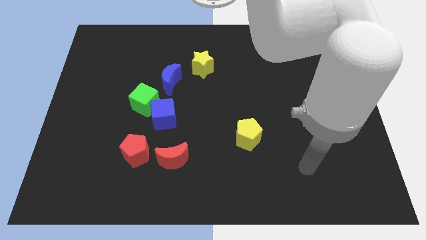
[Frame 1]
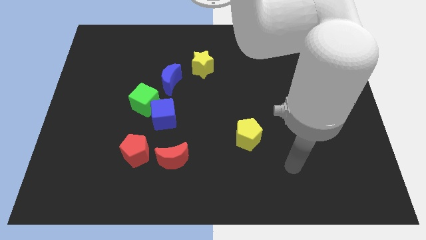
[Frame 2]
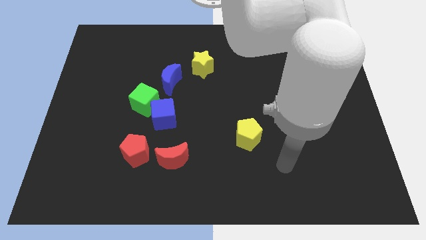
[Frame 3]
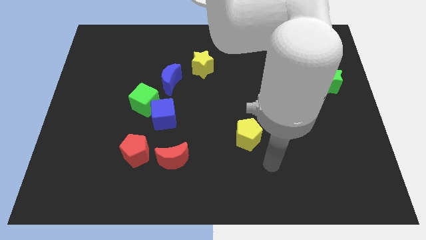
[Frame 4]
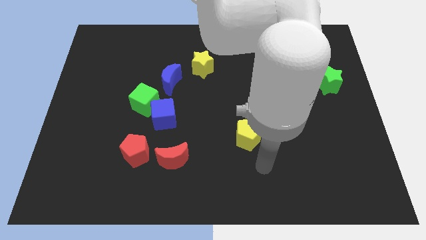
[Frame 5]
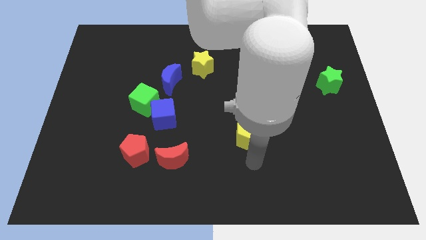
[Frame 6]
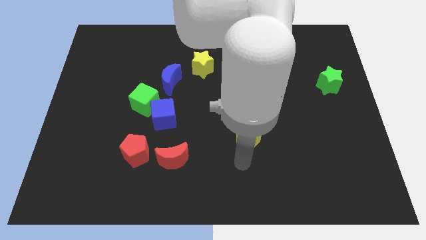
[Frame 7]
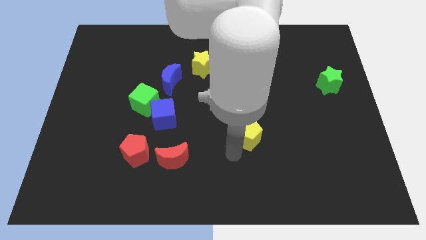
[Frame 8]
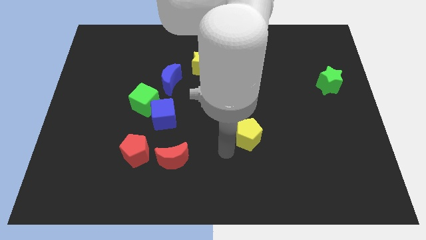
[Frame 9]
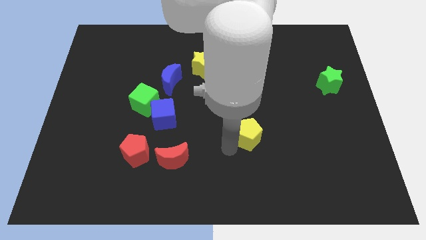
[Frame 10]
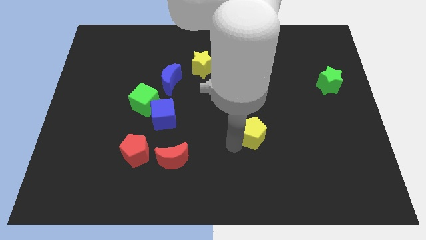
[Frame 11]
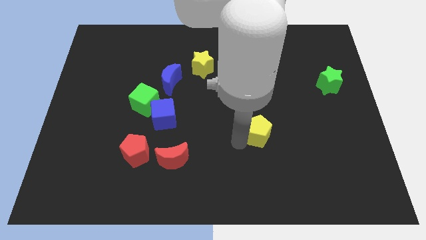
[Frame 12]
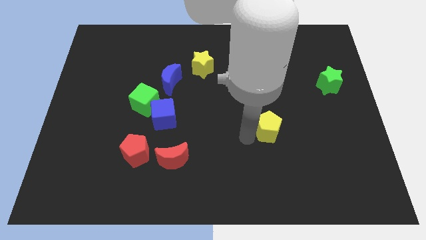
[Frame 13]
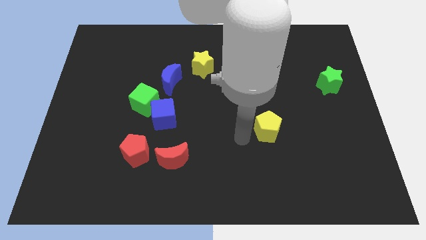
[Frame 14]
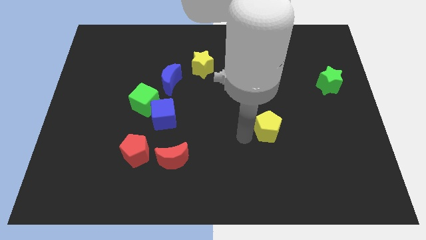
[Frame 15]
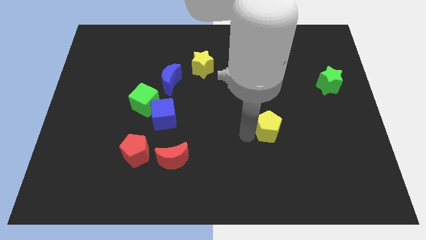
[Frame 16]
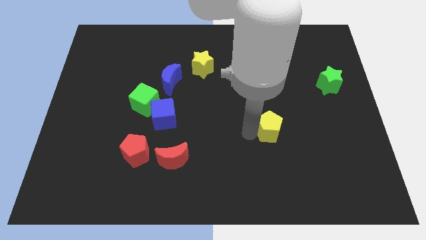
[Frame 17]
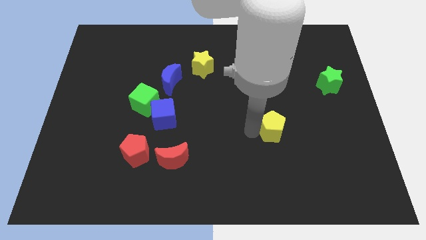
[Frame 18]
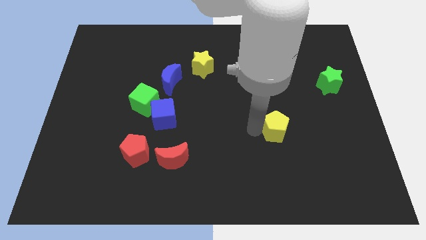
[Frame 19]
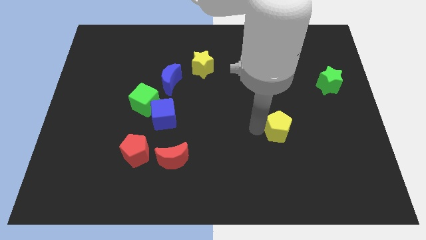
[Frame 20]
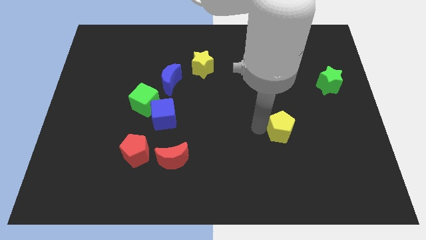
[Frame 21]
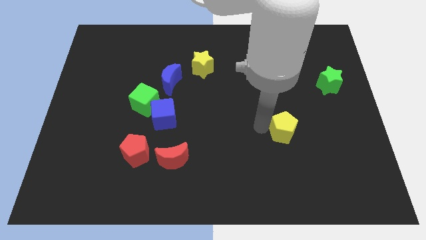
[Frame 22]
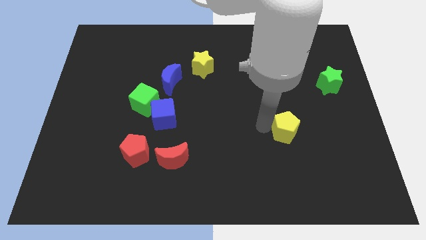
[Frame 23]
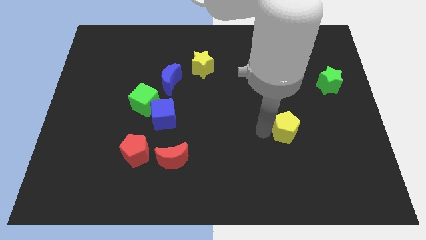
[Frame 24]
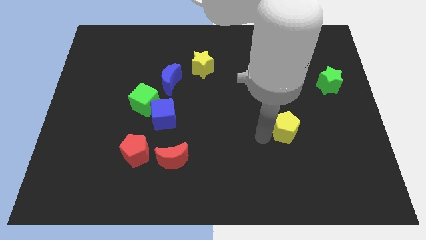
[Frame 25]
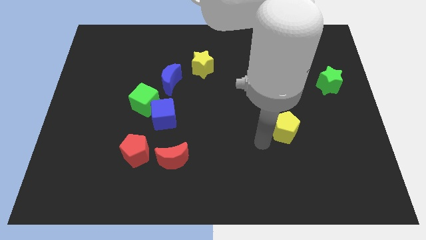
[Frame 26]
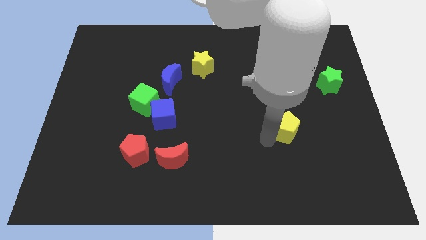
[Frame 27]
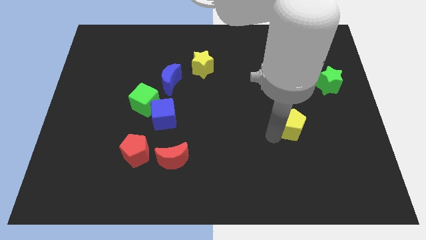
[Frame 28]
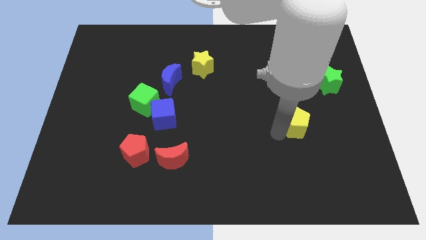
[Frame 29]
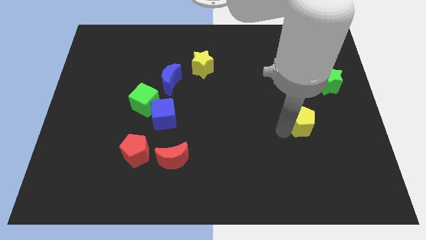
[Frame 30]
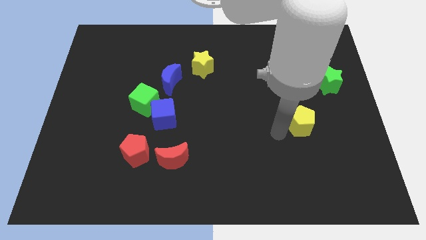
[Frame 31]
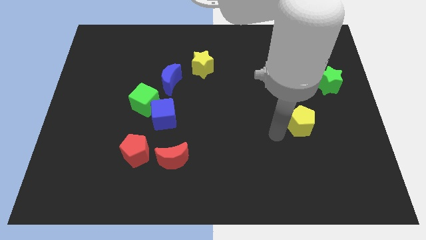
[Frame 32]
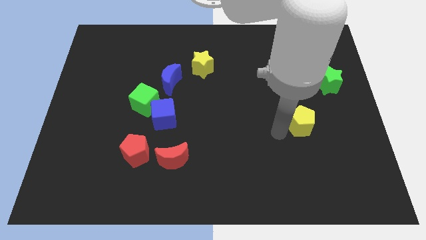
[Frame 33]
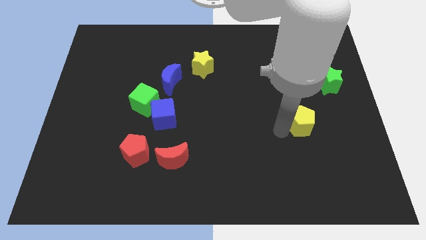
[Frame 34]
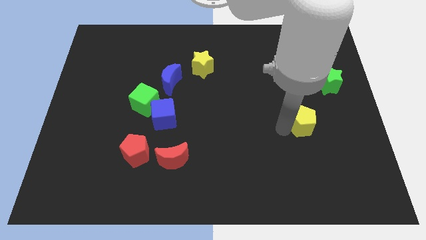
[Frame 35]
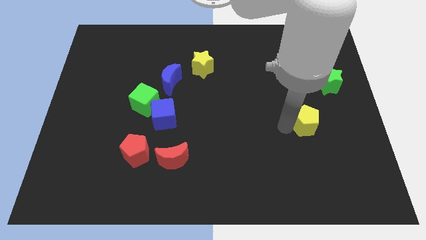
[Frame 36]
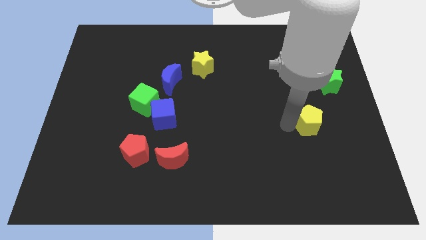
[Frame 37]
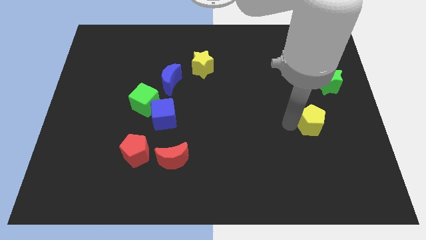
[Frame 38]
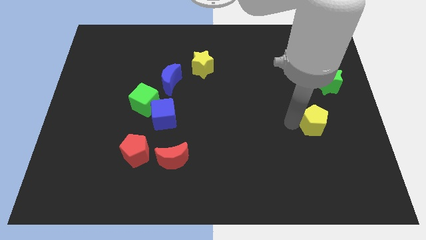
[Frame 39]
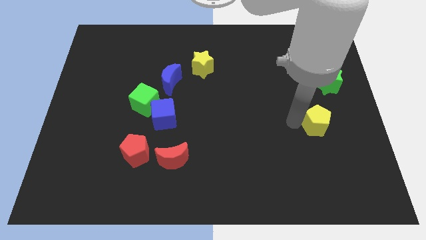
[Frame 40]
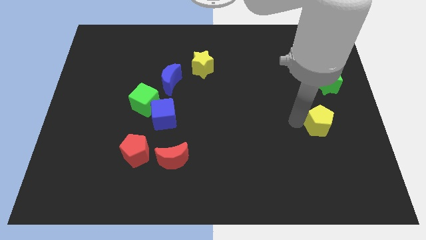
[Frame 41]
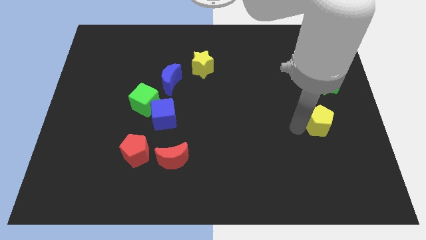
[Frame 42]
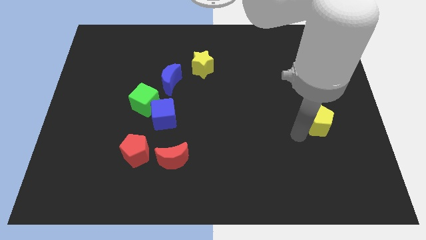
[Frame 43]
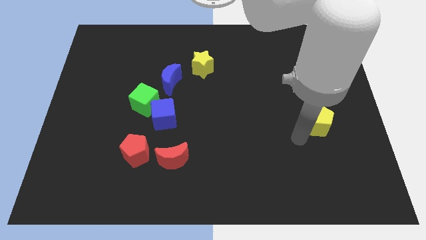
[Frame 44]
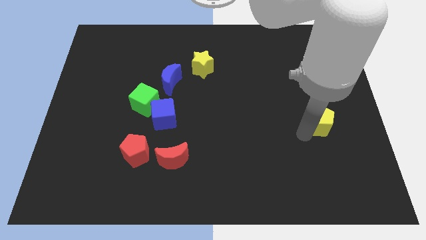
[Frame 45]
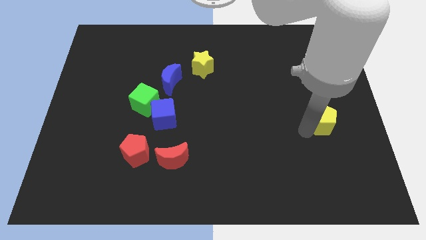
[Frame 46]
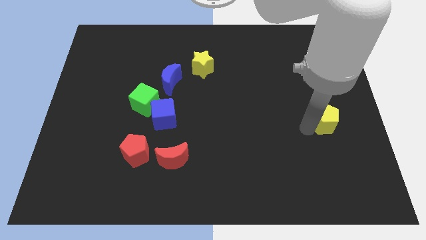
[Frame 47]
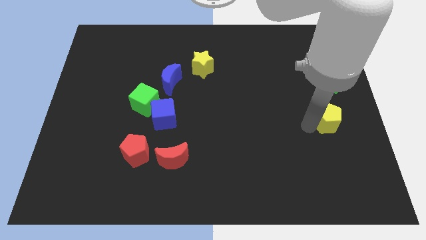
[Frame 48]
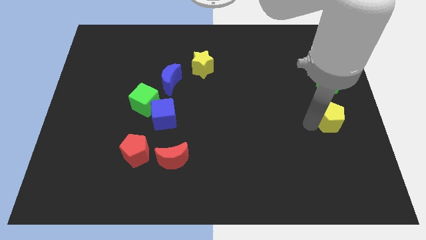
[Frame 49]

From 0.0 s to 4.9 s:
move the yellow pentagon to the center right

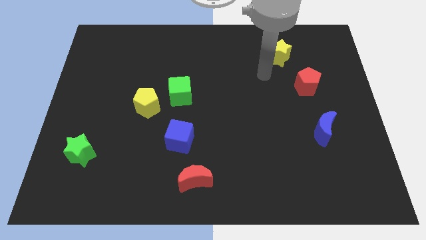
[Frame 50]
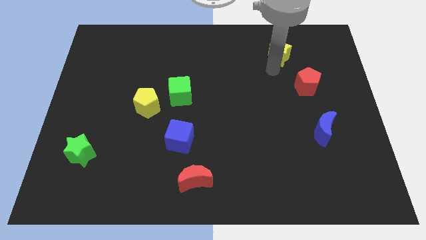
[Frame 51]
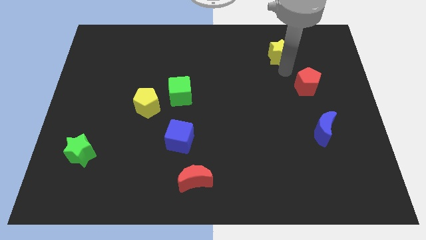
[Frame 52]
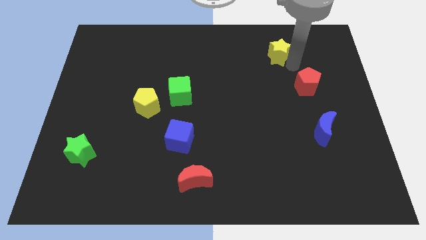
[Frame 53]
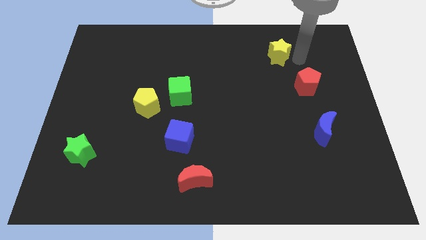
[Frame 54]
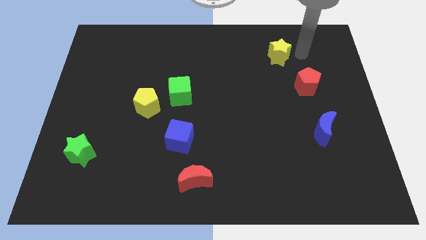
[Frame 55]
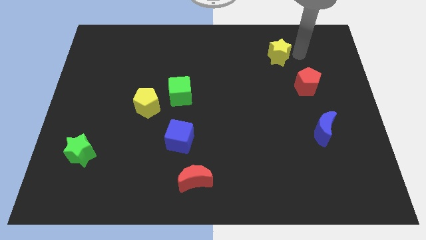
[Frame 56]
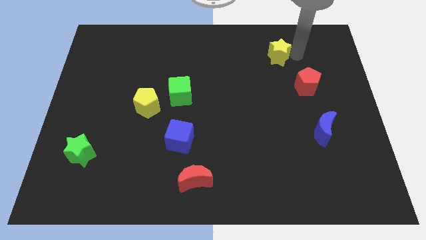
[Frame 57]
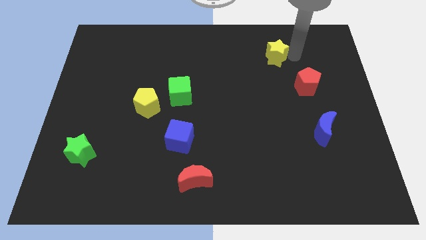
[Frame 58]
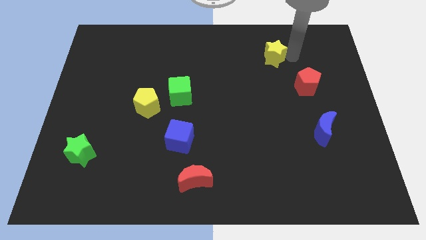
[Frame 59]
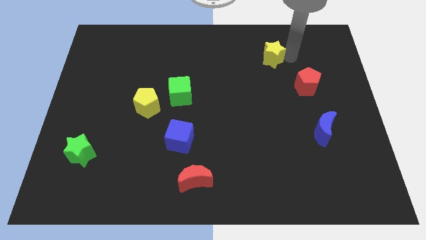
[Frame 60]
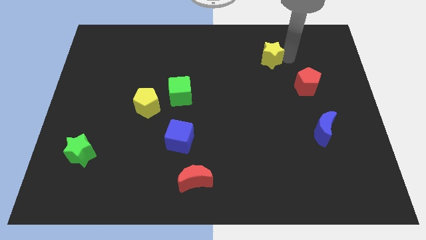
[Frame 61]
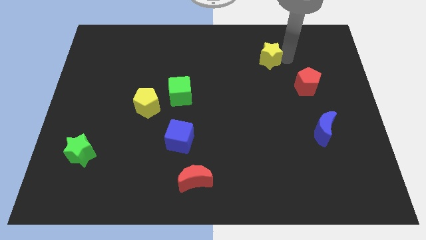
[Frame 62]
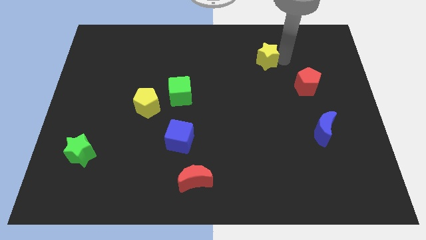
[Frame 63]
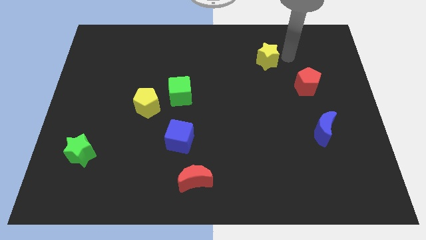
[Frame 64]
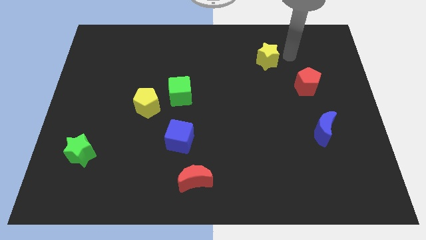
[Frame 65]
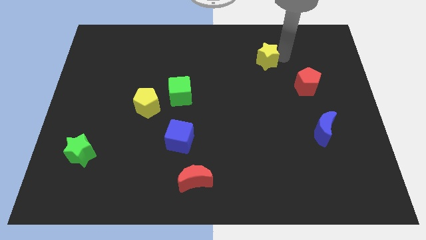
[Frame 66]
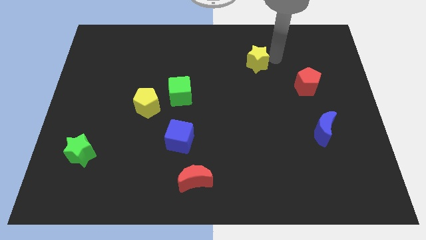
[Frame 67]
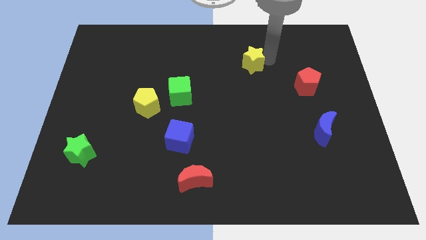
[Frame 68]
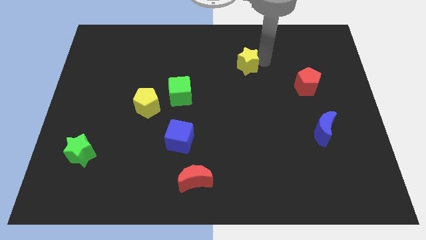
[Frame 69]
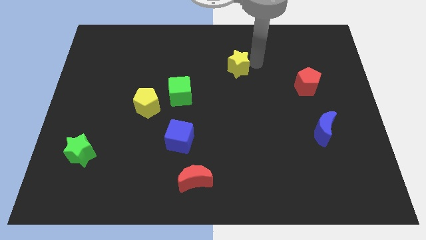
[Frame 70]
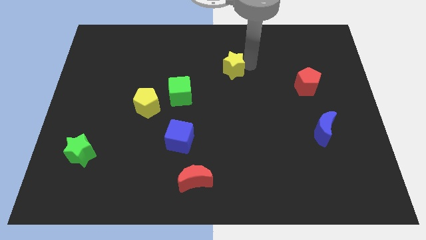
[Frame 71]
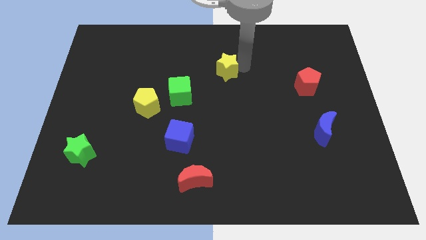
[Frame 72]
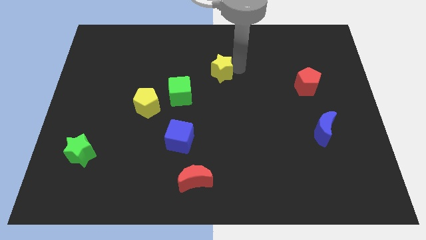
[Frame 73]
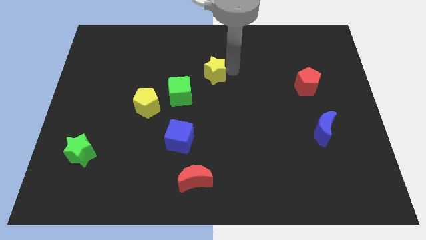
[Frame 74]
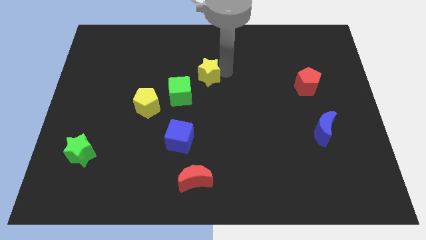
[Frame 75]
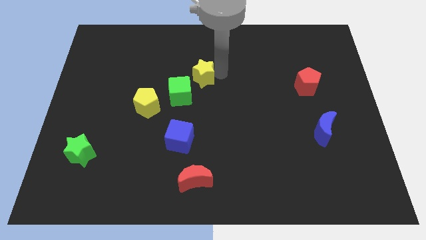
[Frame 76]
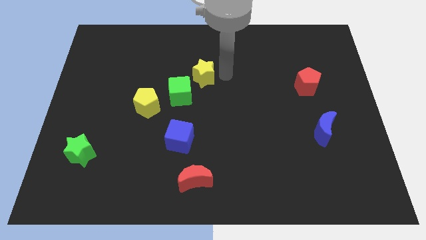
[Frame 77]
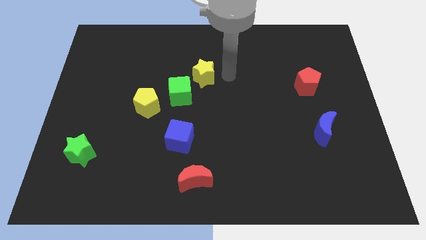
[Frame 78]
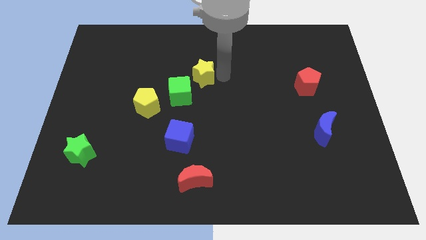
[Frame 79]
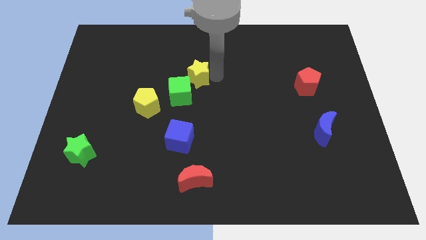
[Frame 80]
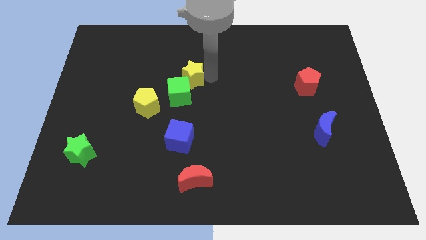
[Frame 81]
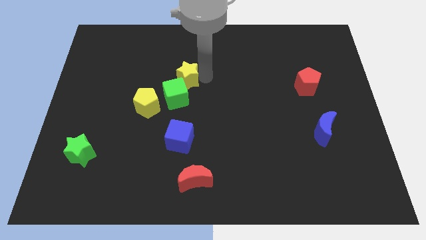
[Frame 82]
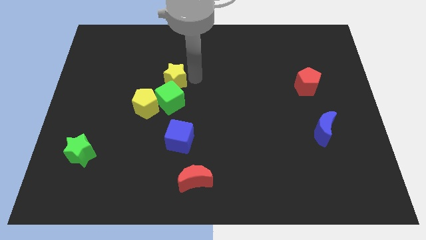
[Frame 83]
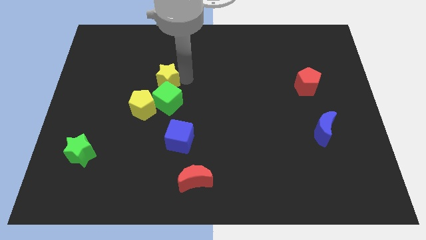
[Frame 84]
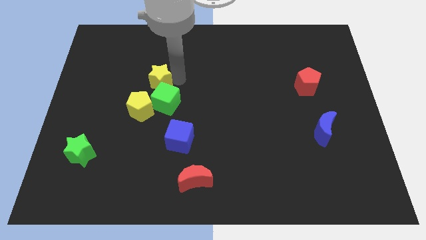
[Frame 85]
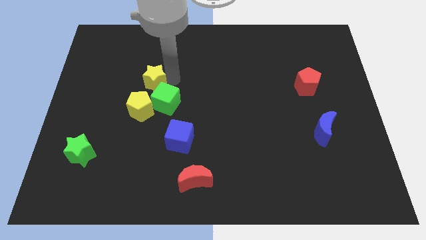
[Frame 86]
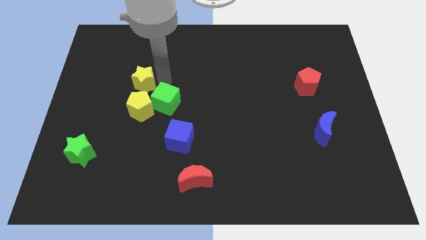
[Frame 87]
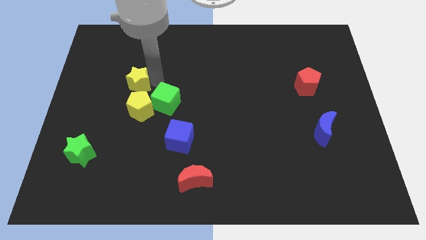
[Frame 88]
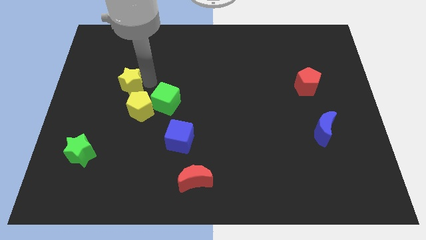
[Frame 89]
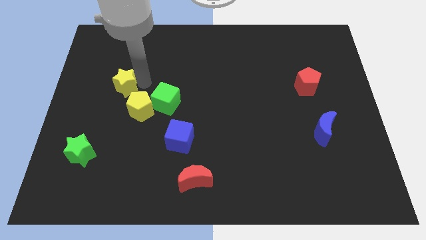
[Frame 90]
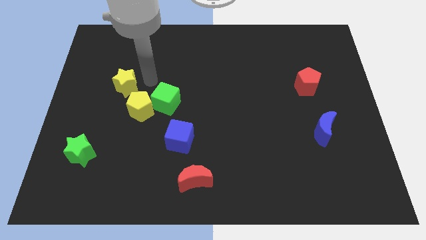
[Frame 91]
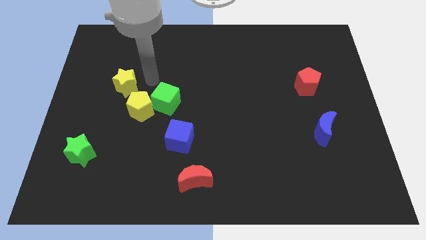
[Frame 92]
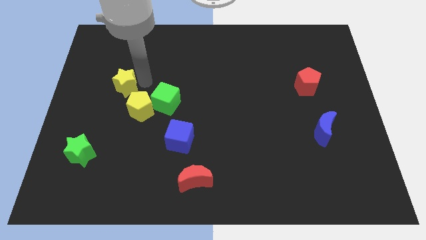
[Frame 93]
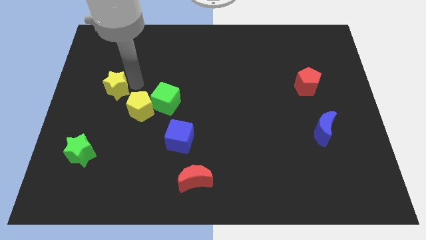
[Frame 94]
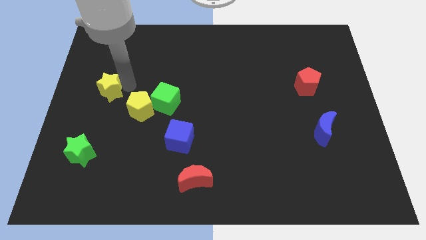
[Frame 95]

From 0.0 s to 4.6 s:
push the yellow star to the left side of the board
